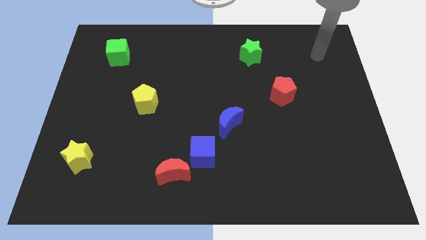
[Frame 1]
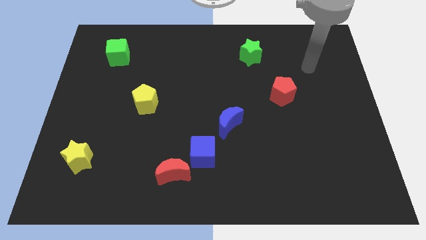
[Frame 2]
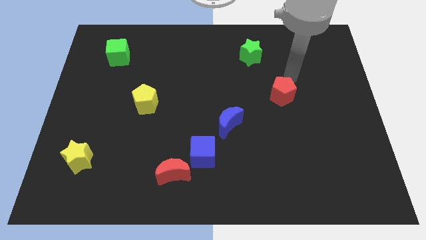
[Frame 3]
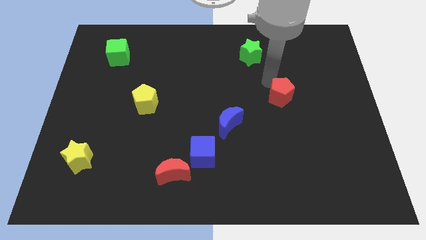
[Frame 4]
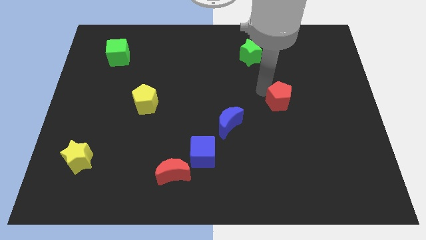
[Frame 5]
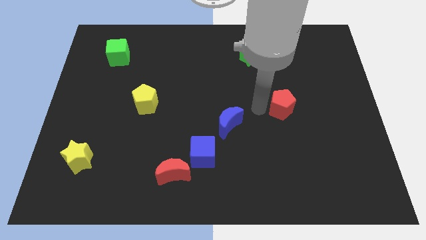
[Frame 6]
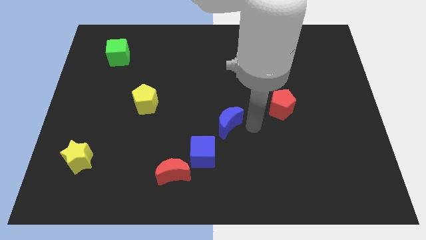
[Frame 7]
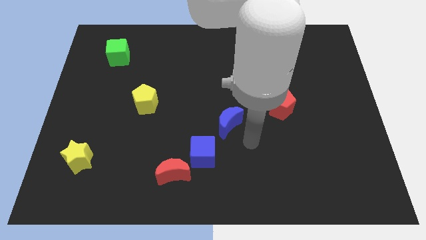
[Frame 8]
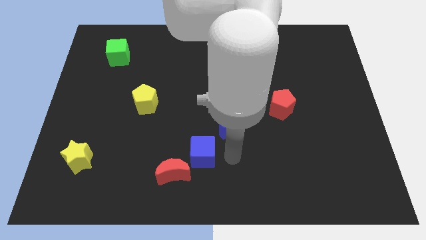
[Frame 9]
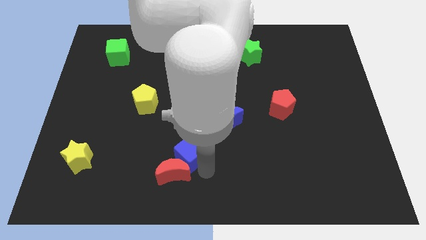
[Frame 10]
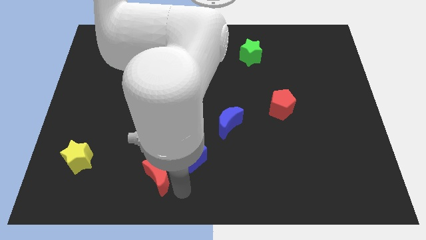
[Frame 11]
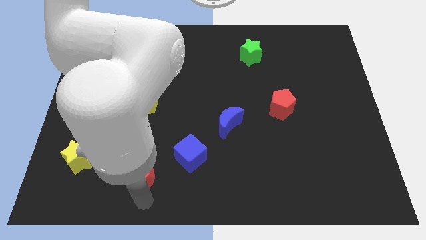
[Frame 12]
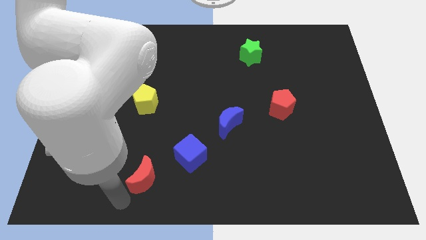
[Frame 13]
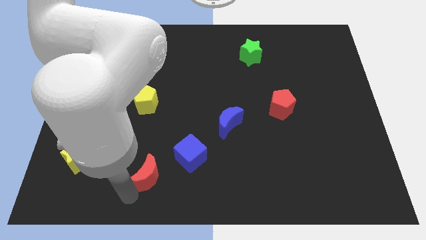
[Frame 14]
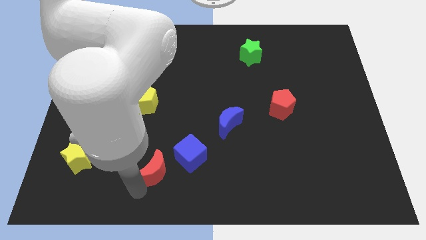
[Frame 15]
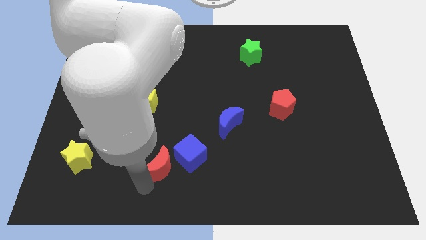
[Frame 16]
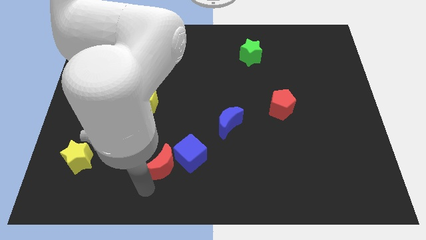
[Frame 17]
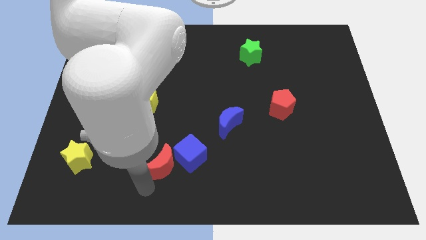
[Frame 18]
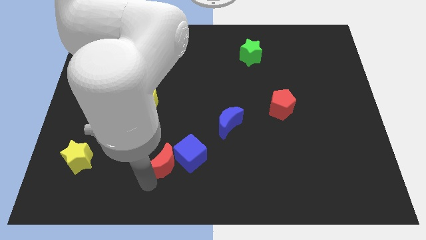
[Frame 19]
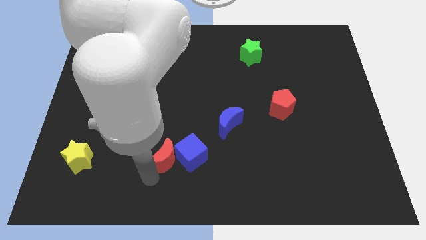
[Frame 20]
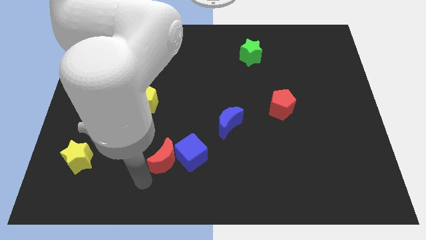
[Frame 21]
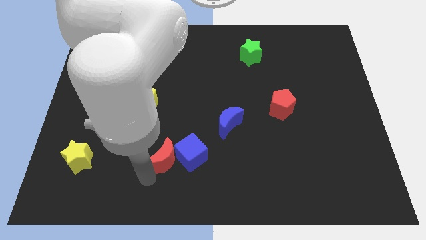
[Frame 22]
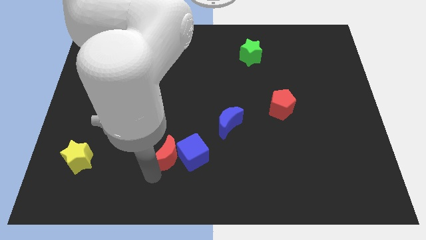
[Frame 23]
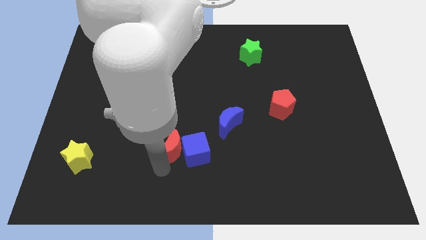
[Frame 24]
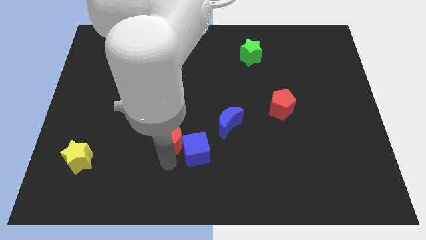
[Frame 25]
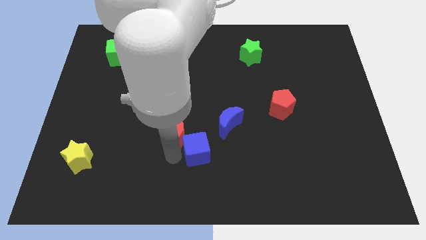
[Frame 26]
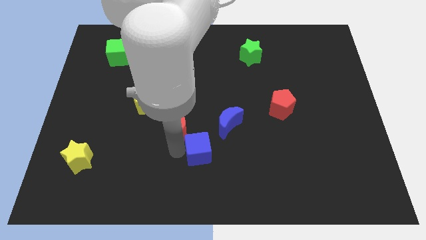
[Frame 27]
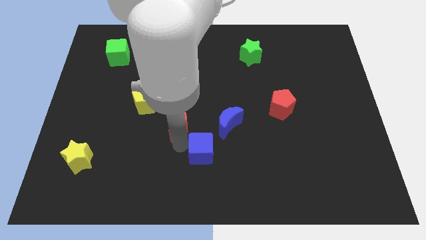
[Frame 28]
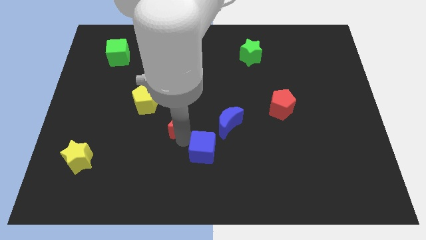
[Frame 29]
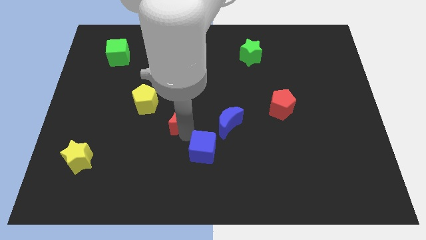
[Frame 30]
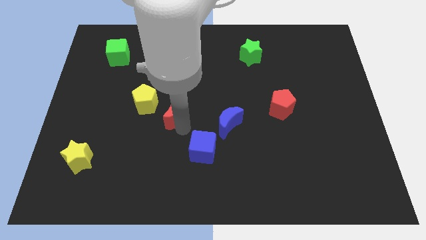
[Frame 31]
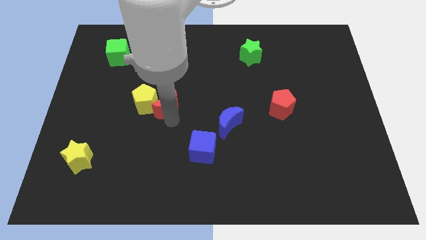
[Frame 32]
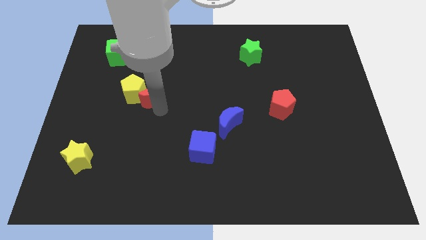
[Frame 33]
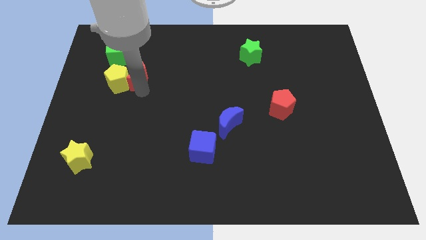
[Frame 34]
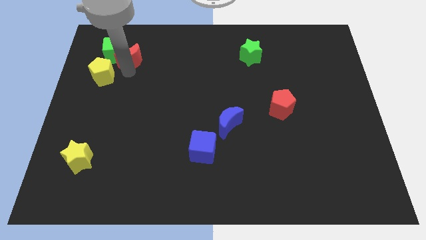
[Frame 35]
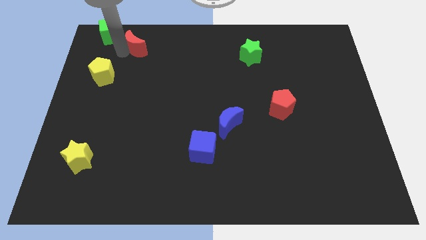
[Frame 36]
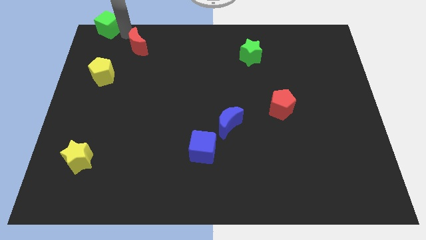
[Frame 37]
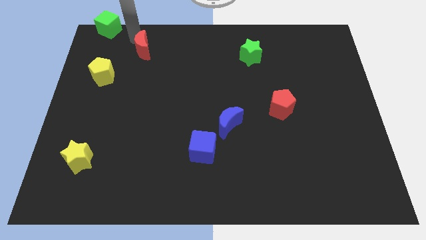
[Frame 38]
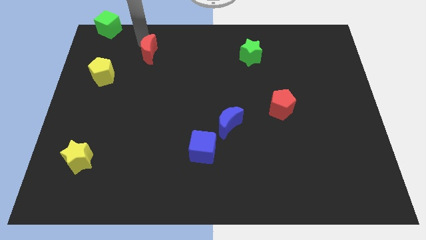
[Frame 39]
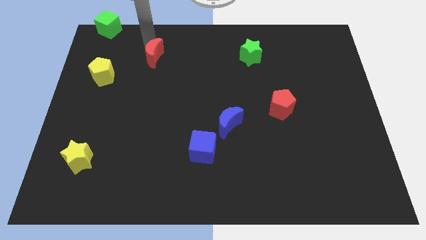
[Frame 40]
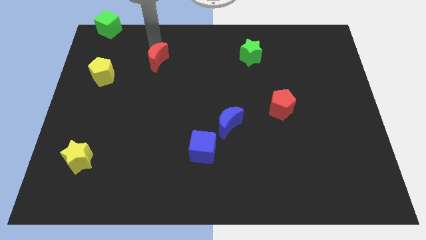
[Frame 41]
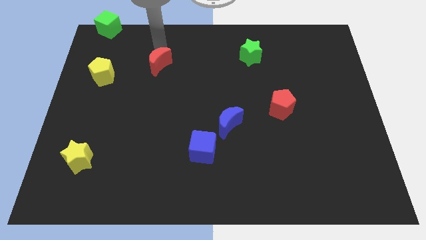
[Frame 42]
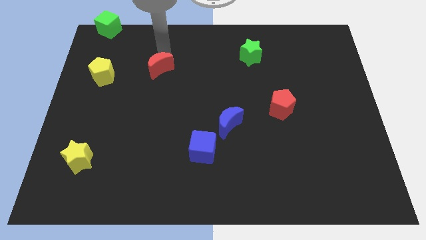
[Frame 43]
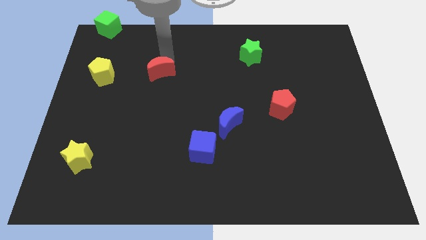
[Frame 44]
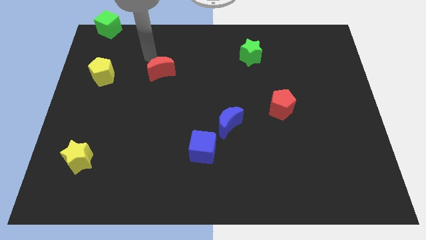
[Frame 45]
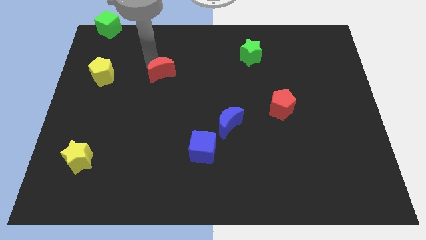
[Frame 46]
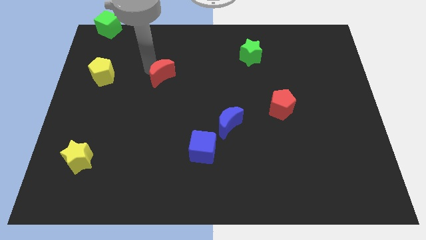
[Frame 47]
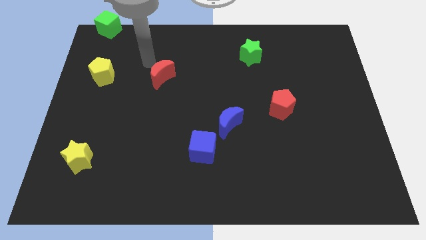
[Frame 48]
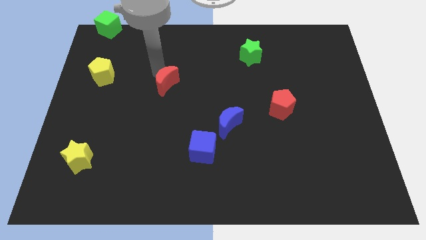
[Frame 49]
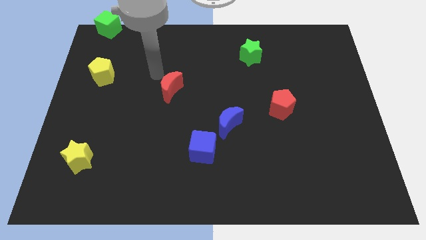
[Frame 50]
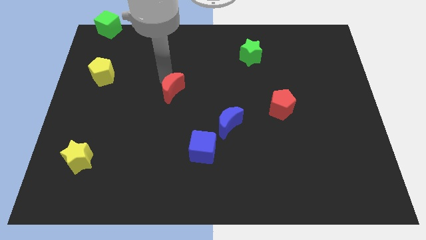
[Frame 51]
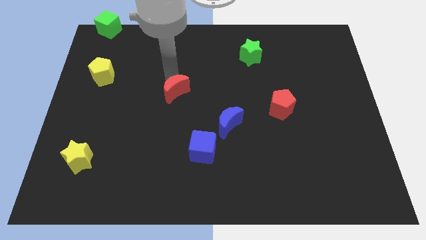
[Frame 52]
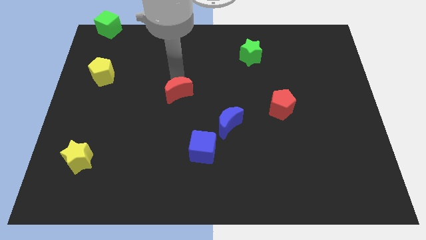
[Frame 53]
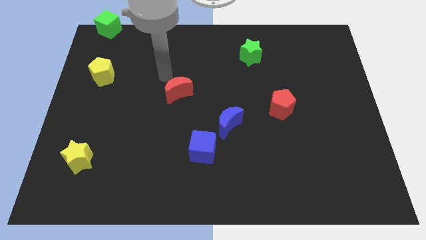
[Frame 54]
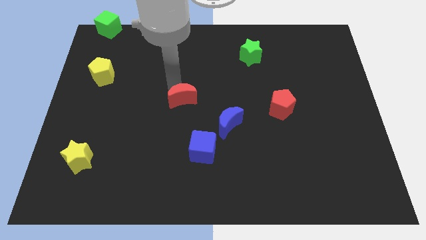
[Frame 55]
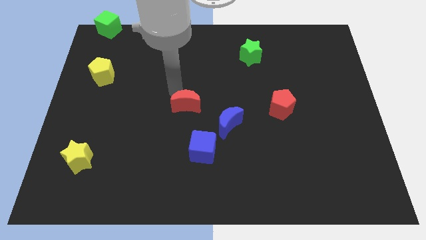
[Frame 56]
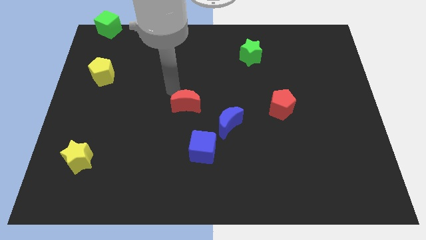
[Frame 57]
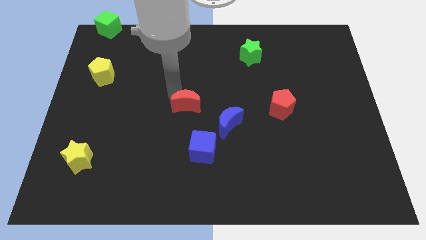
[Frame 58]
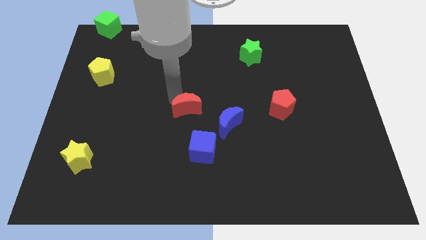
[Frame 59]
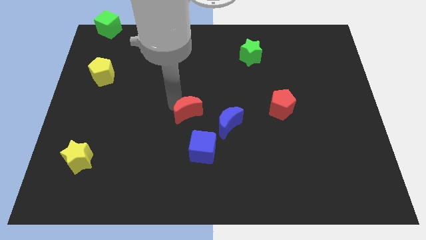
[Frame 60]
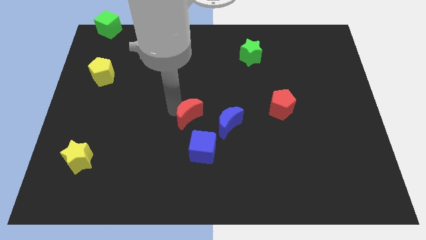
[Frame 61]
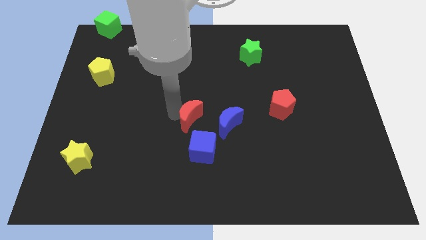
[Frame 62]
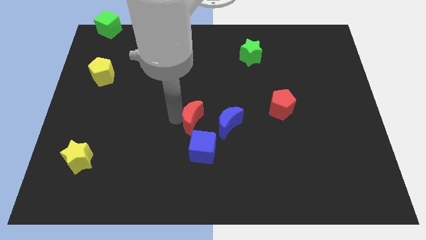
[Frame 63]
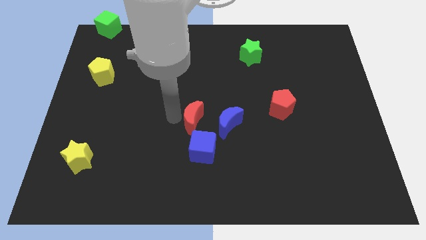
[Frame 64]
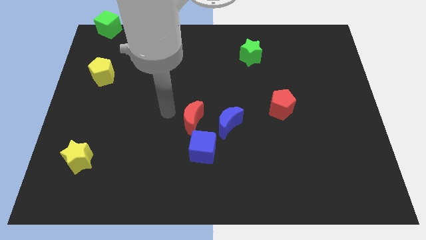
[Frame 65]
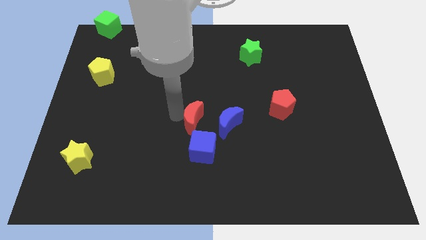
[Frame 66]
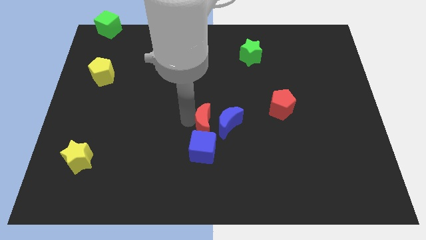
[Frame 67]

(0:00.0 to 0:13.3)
slide the red moon next to the blue moon
